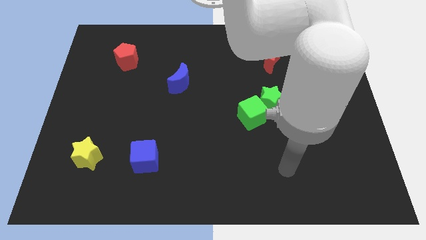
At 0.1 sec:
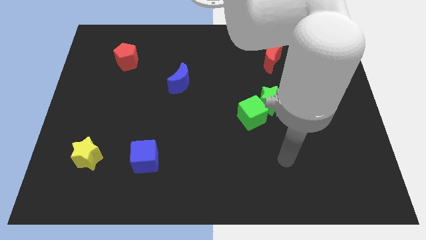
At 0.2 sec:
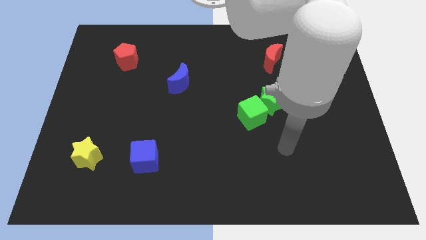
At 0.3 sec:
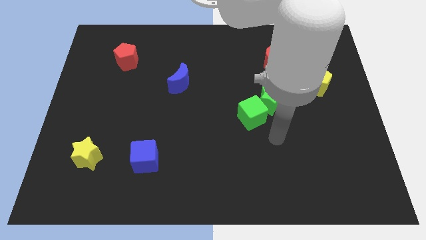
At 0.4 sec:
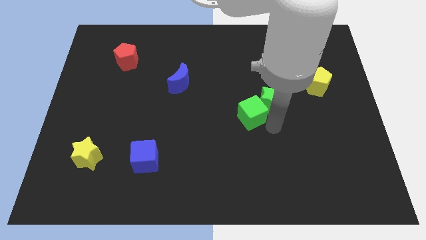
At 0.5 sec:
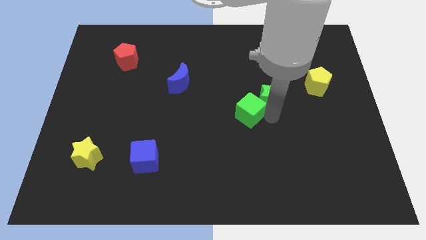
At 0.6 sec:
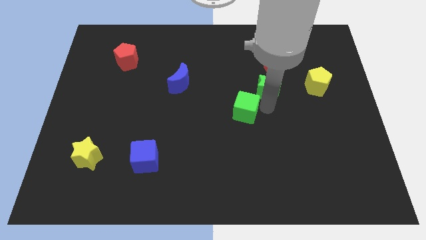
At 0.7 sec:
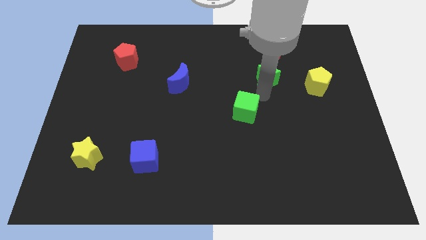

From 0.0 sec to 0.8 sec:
move the green cube away from the green star

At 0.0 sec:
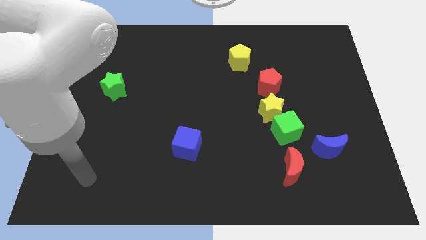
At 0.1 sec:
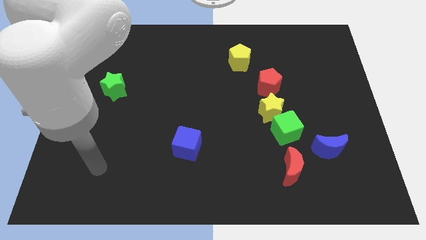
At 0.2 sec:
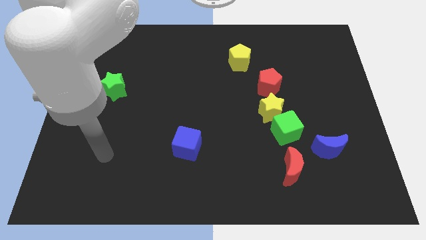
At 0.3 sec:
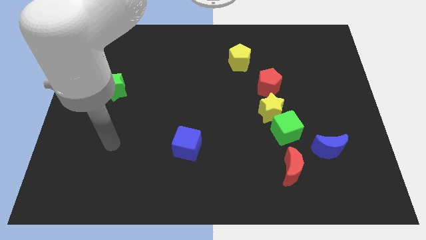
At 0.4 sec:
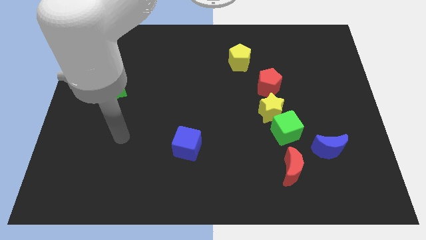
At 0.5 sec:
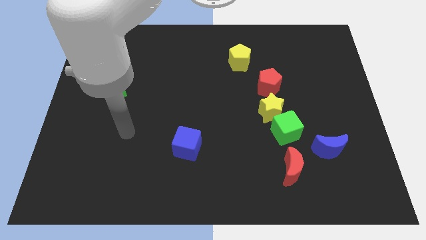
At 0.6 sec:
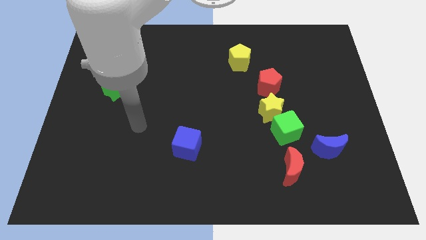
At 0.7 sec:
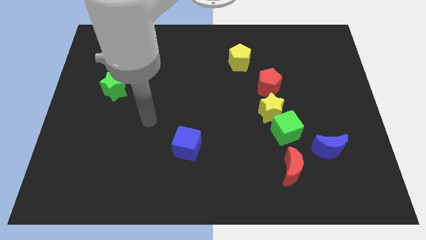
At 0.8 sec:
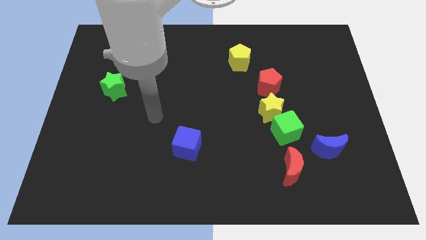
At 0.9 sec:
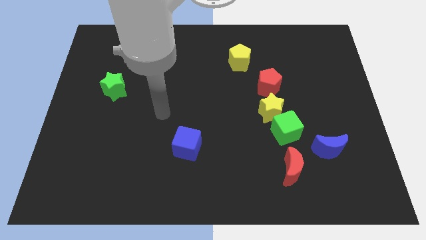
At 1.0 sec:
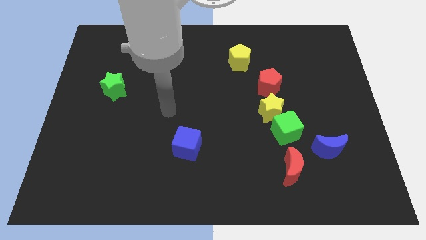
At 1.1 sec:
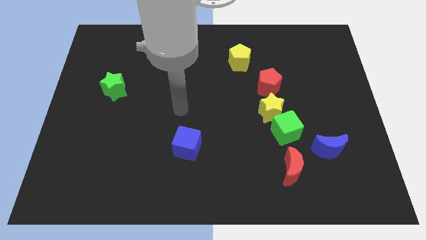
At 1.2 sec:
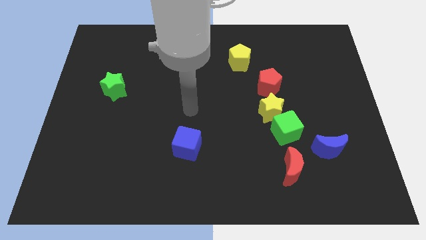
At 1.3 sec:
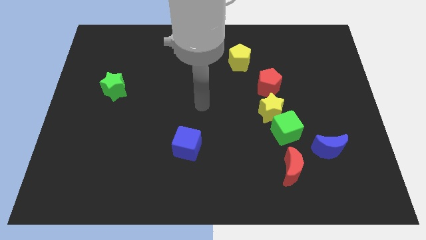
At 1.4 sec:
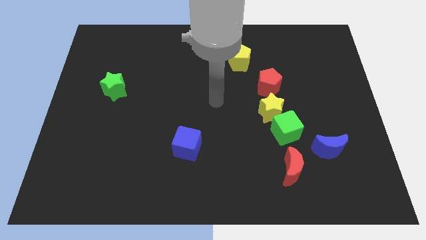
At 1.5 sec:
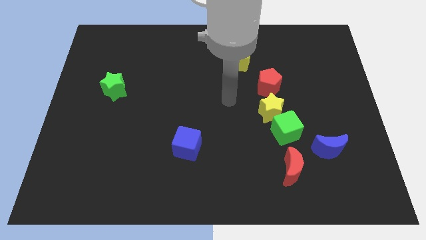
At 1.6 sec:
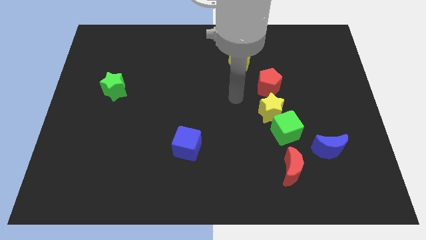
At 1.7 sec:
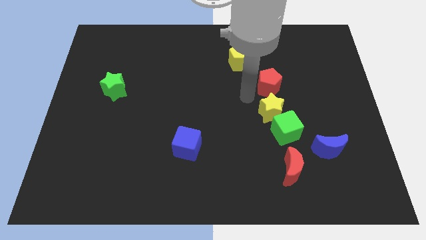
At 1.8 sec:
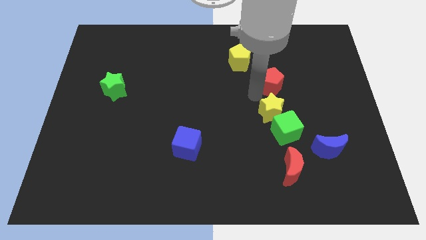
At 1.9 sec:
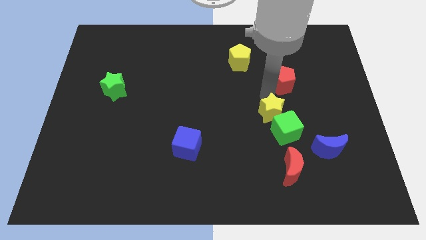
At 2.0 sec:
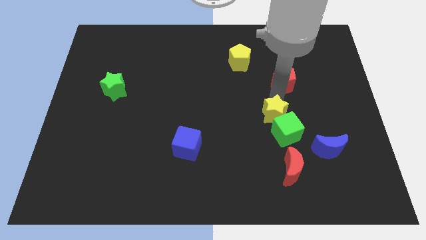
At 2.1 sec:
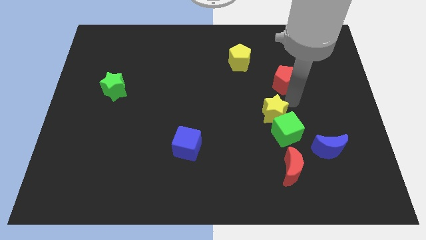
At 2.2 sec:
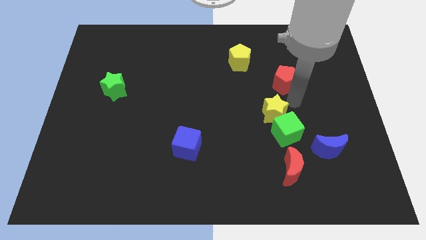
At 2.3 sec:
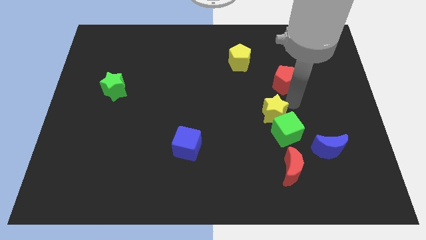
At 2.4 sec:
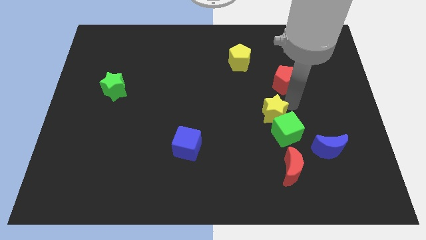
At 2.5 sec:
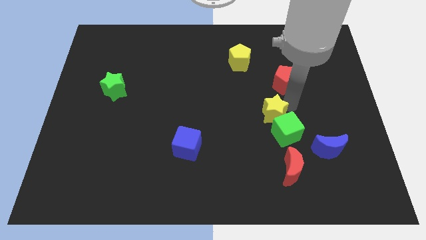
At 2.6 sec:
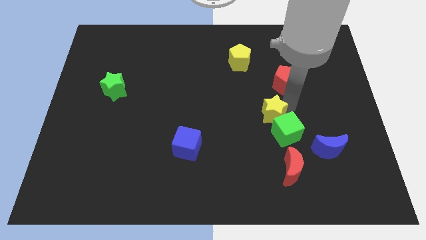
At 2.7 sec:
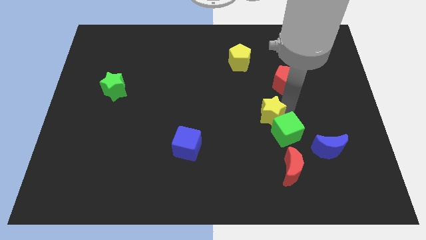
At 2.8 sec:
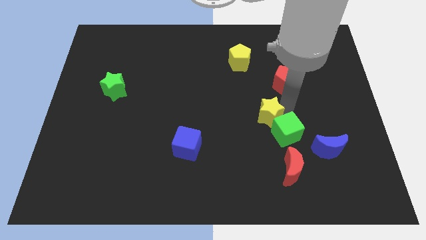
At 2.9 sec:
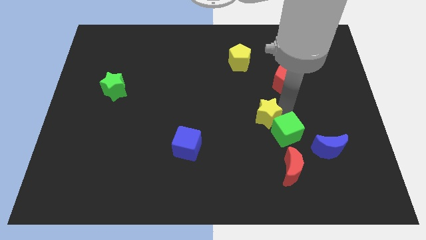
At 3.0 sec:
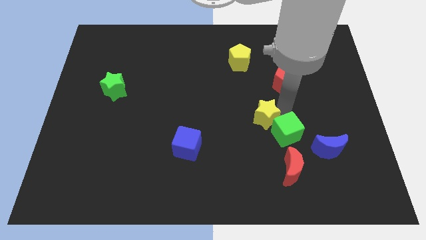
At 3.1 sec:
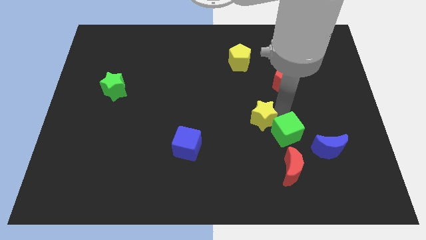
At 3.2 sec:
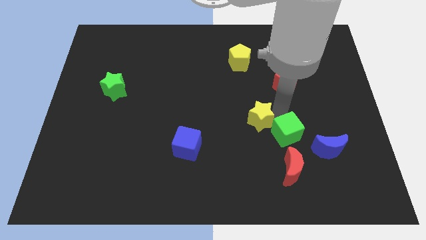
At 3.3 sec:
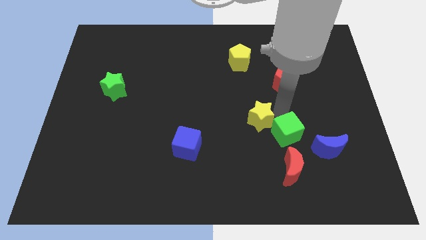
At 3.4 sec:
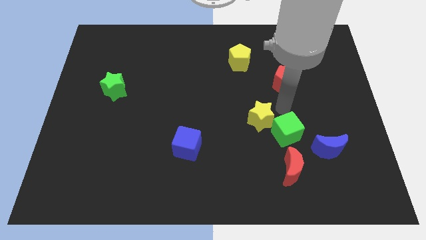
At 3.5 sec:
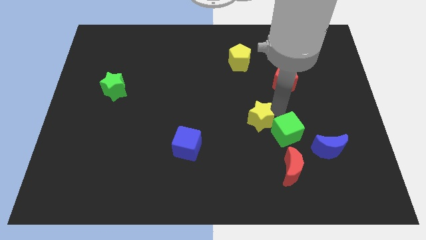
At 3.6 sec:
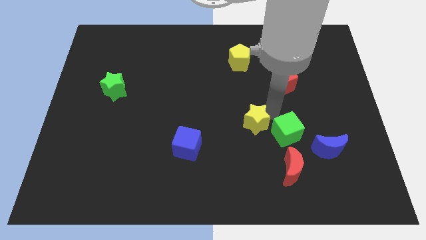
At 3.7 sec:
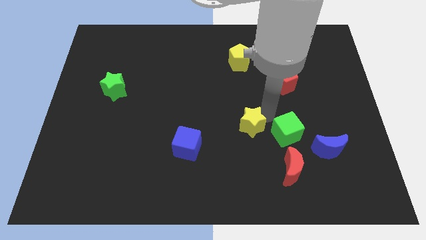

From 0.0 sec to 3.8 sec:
pull the yellow star apart from the green cube and red pentagon

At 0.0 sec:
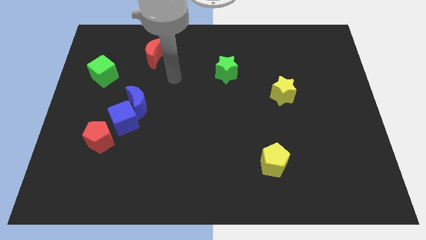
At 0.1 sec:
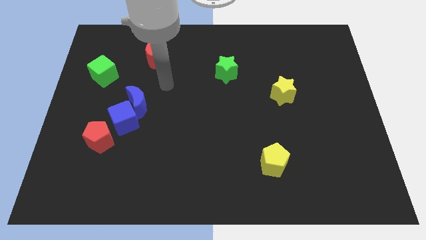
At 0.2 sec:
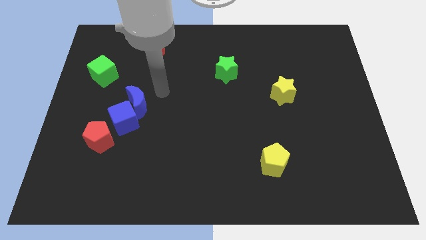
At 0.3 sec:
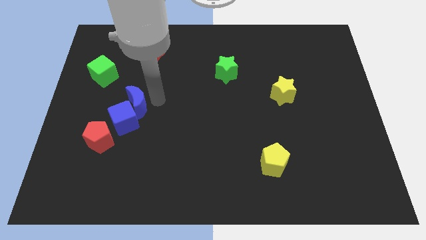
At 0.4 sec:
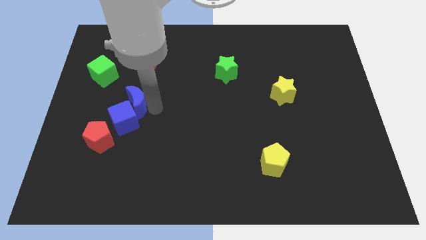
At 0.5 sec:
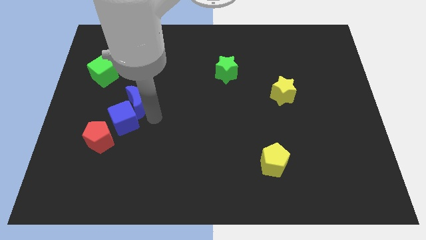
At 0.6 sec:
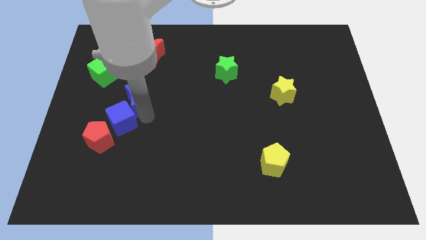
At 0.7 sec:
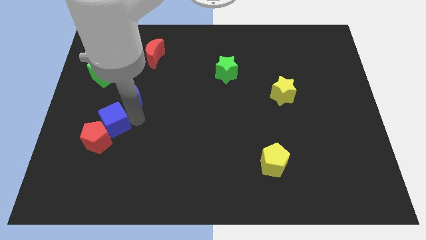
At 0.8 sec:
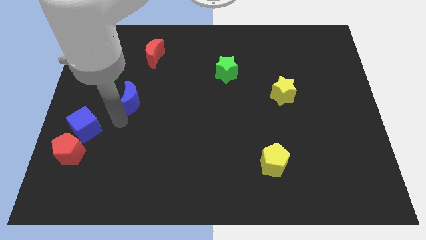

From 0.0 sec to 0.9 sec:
pull the blue moon apart from the blue cube

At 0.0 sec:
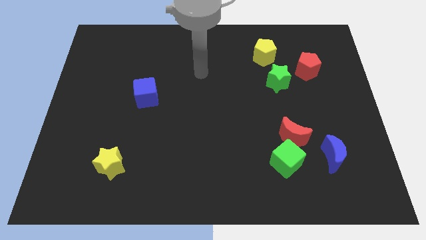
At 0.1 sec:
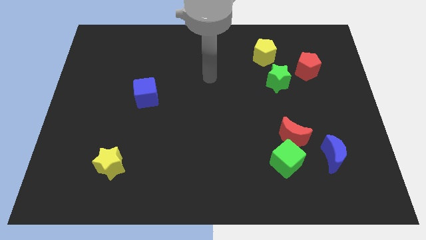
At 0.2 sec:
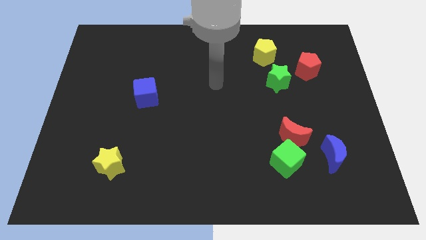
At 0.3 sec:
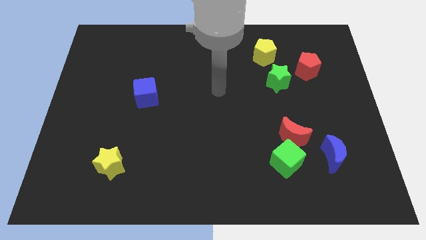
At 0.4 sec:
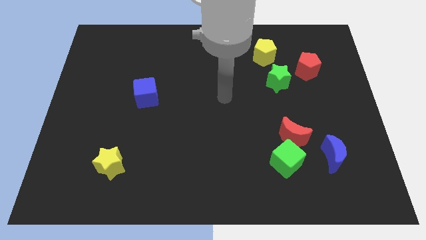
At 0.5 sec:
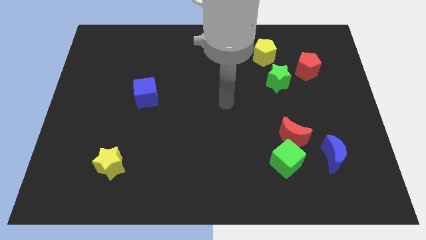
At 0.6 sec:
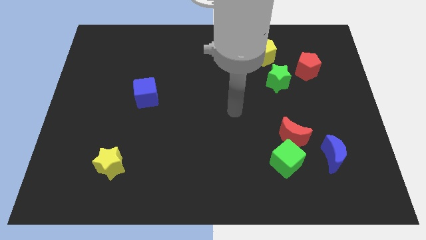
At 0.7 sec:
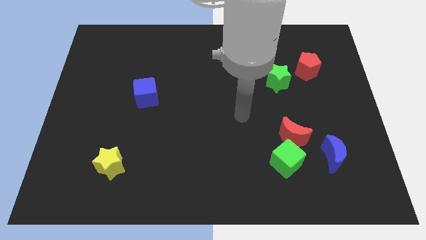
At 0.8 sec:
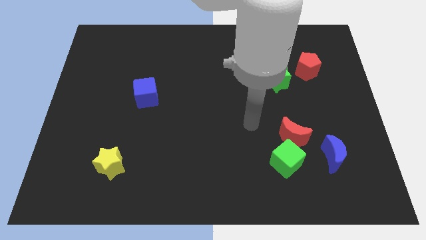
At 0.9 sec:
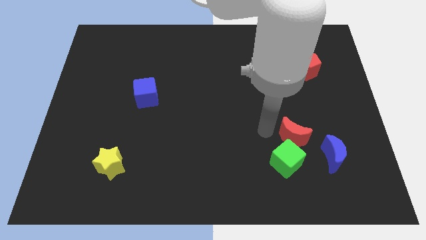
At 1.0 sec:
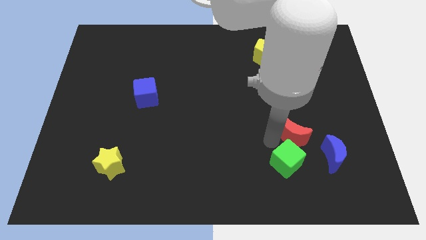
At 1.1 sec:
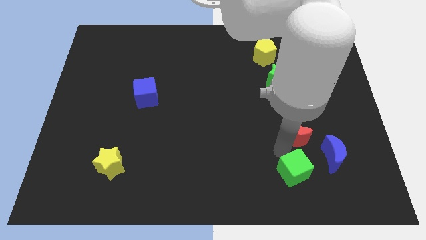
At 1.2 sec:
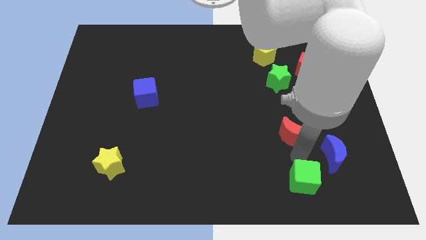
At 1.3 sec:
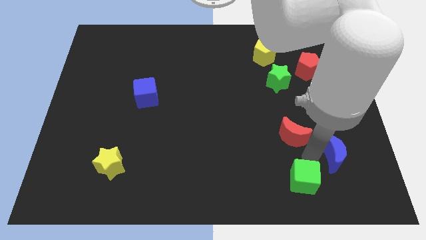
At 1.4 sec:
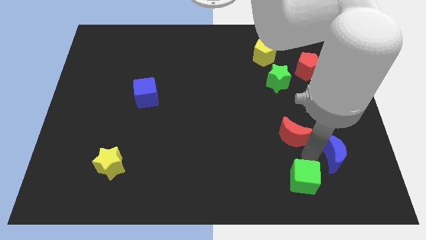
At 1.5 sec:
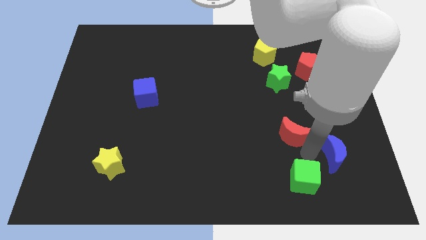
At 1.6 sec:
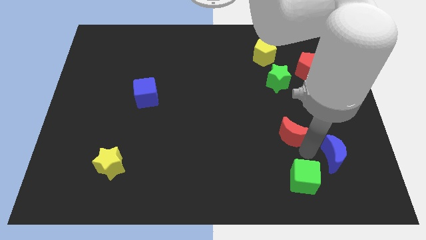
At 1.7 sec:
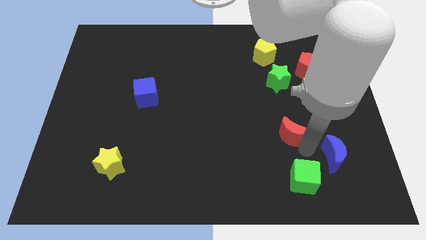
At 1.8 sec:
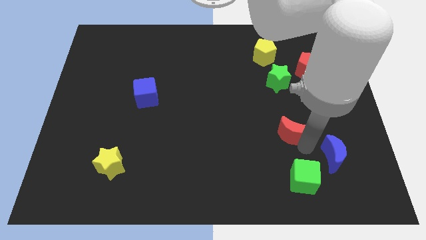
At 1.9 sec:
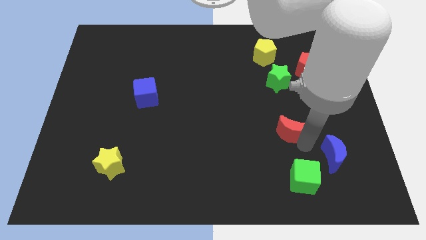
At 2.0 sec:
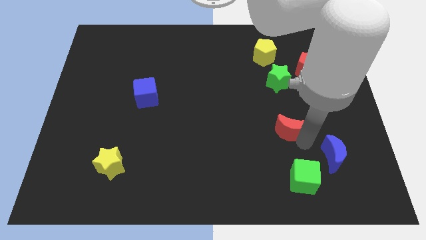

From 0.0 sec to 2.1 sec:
pull the red moon apart from the green cube and blue moon

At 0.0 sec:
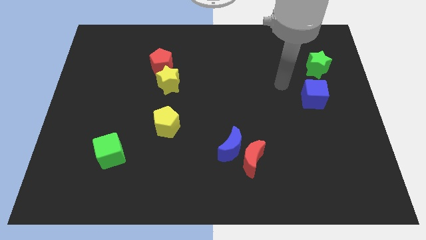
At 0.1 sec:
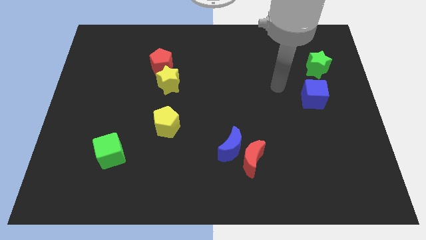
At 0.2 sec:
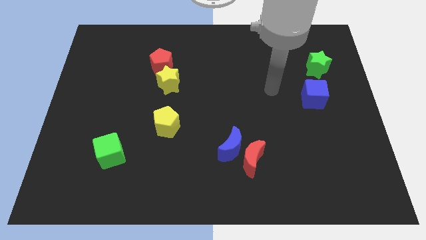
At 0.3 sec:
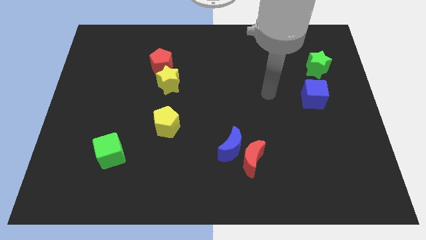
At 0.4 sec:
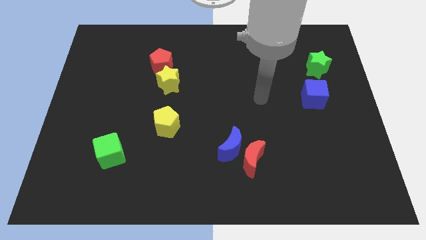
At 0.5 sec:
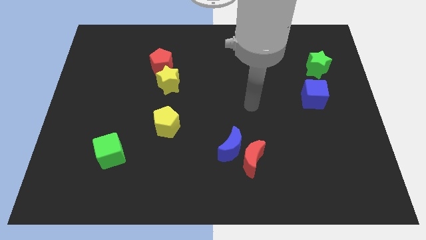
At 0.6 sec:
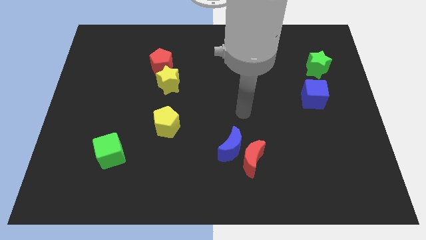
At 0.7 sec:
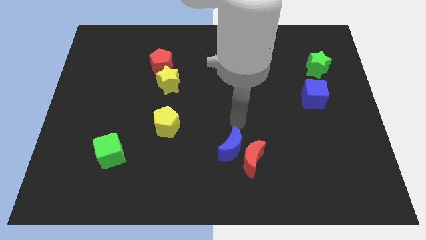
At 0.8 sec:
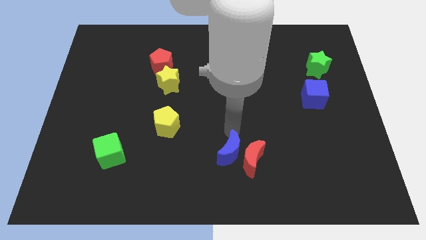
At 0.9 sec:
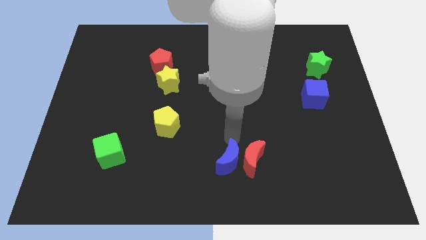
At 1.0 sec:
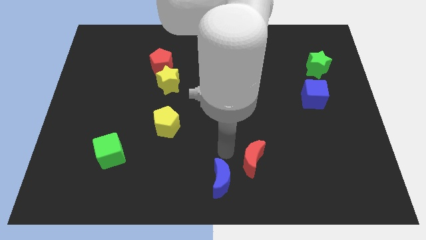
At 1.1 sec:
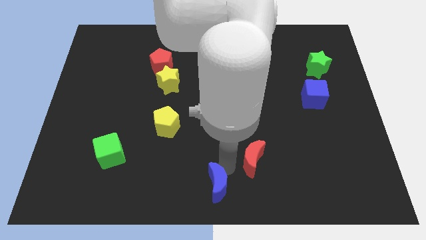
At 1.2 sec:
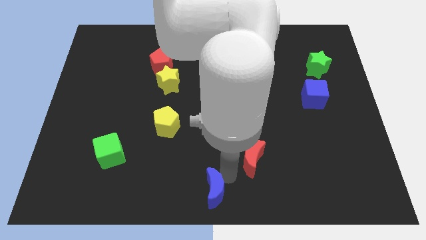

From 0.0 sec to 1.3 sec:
pull the red moon apart from the blue moon

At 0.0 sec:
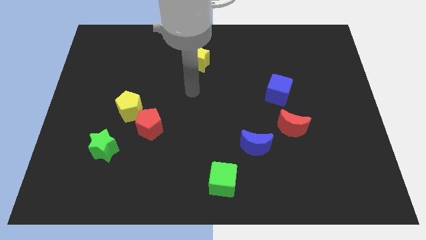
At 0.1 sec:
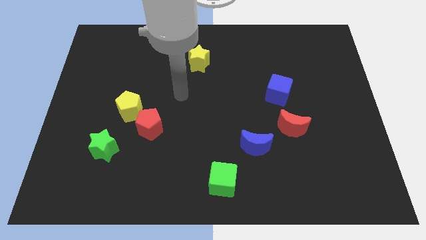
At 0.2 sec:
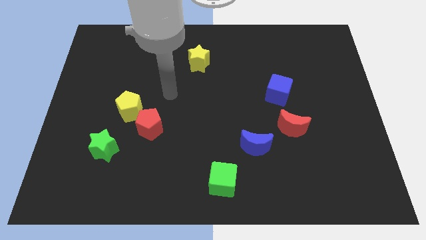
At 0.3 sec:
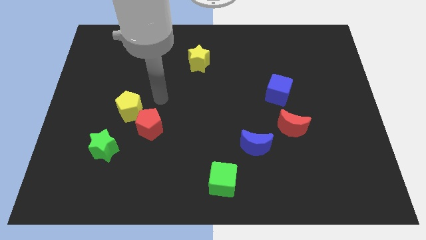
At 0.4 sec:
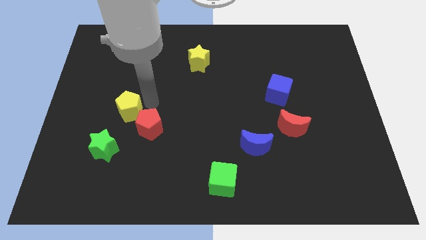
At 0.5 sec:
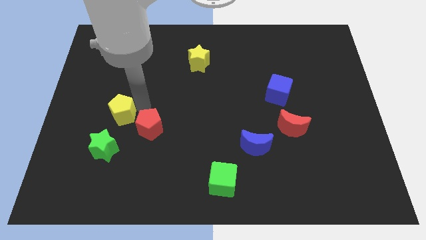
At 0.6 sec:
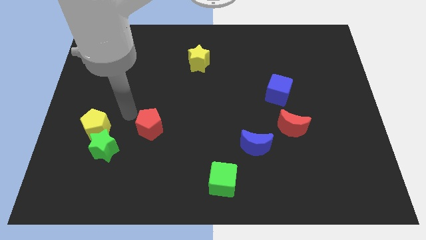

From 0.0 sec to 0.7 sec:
separate the red pentagon from the yellow pentagon
